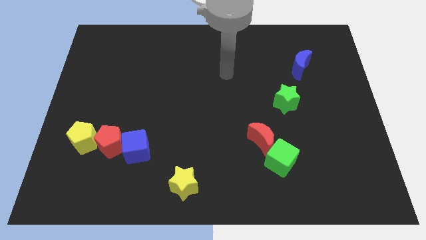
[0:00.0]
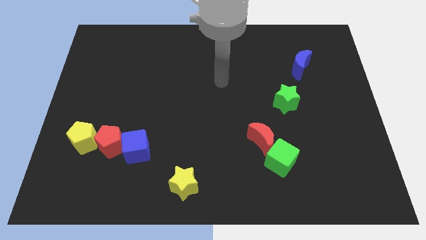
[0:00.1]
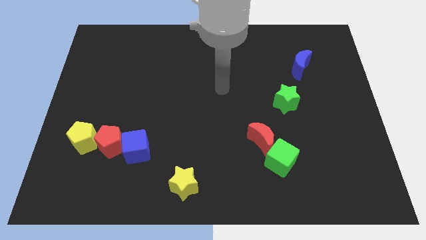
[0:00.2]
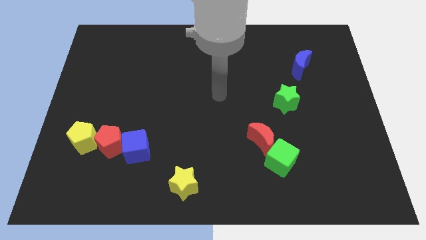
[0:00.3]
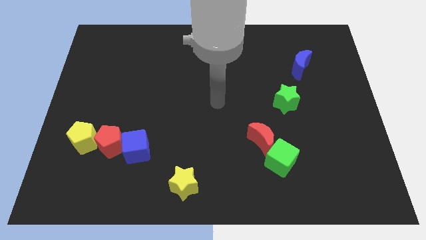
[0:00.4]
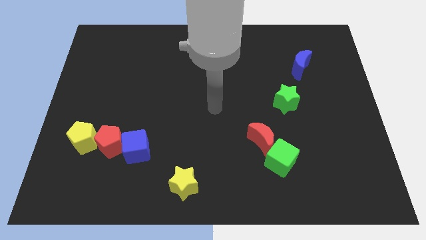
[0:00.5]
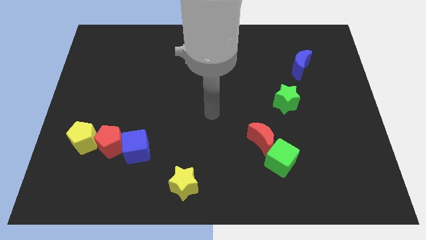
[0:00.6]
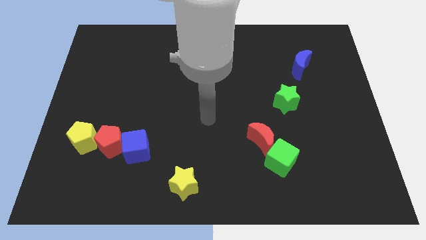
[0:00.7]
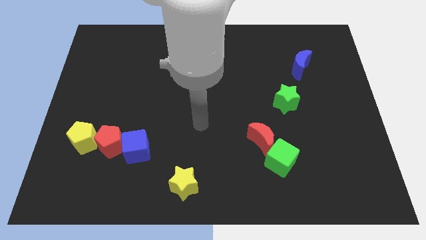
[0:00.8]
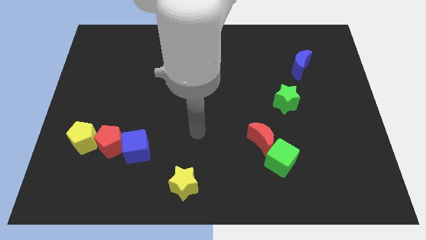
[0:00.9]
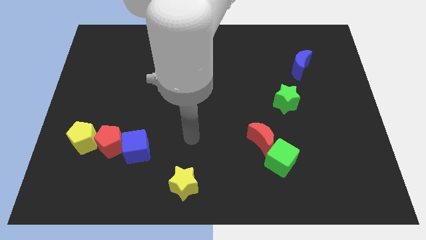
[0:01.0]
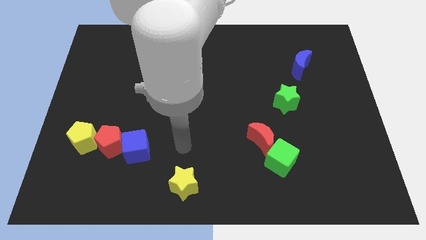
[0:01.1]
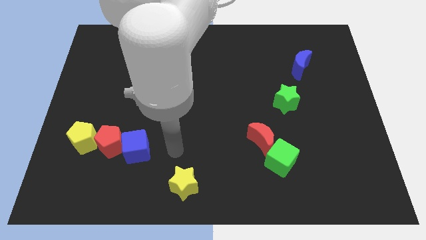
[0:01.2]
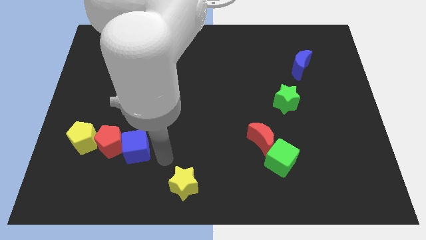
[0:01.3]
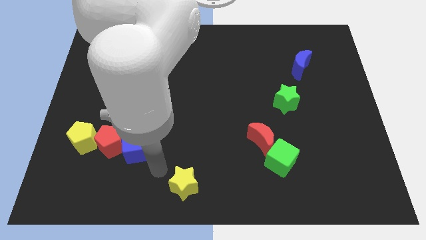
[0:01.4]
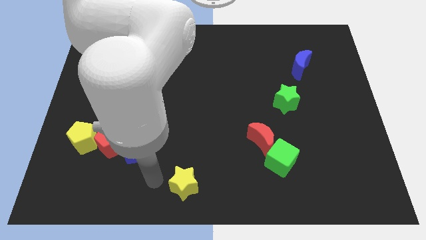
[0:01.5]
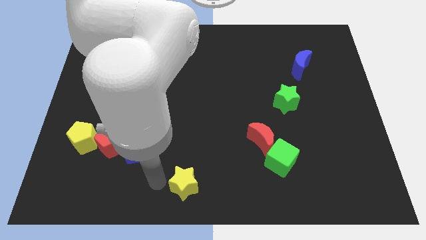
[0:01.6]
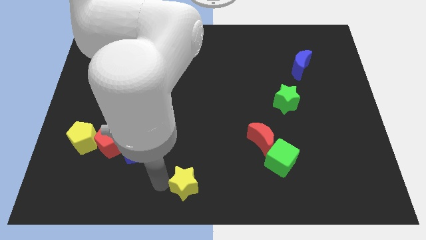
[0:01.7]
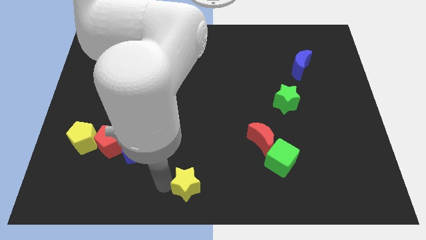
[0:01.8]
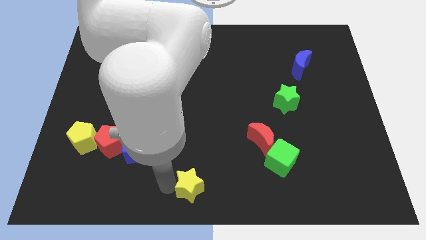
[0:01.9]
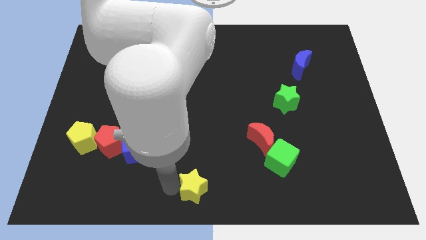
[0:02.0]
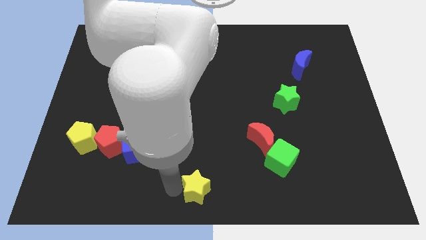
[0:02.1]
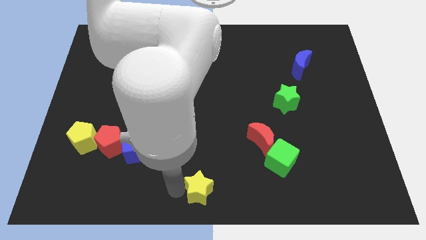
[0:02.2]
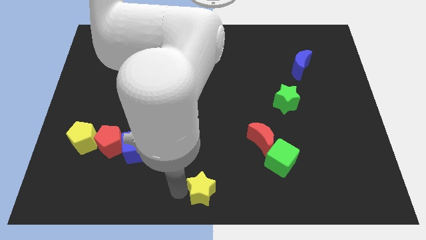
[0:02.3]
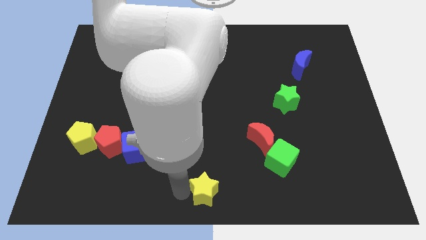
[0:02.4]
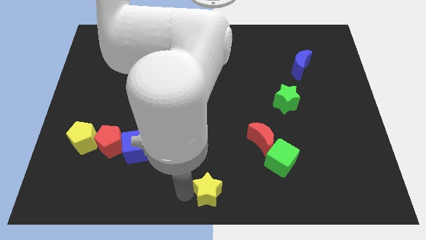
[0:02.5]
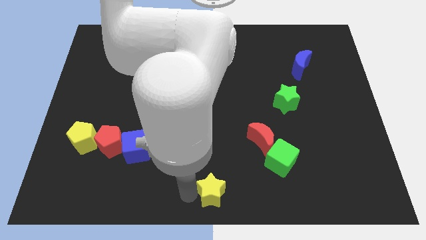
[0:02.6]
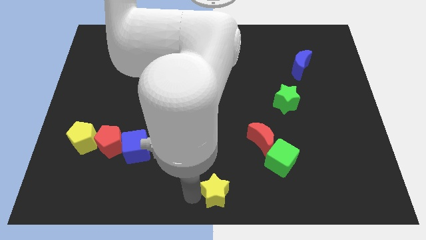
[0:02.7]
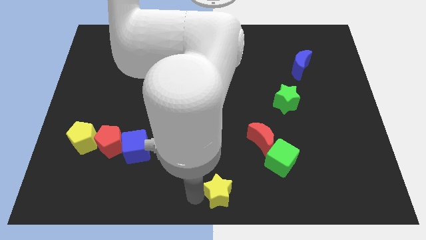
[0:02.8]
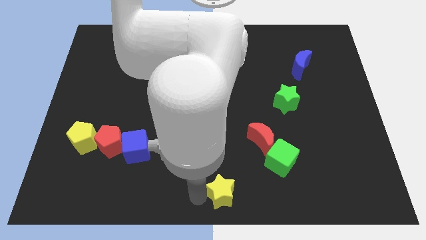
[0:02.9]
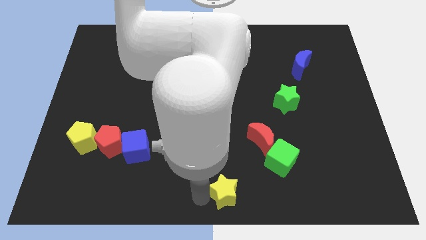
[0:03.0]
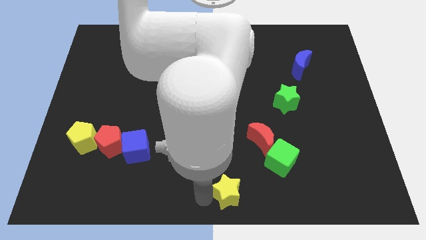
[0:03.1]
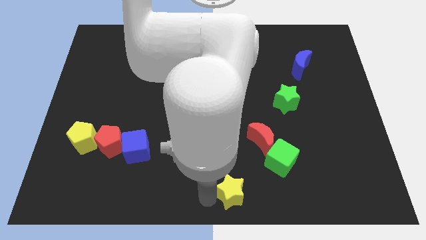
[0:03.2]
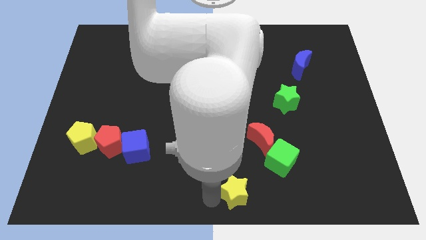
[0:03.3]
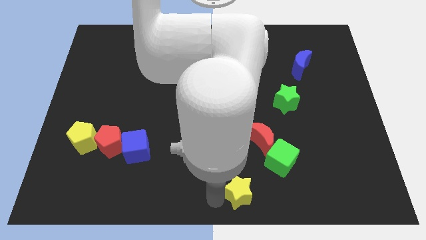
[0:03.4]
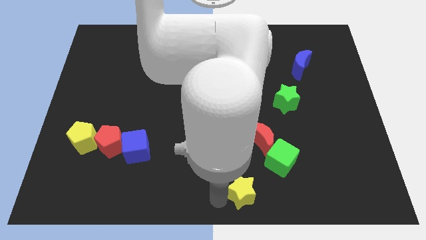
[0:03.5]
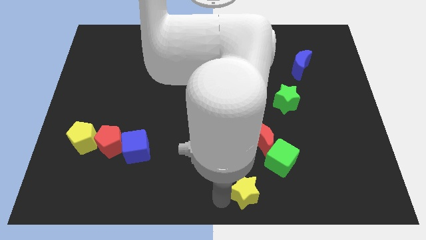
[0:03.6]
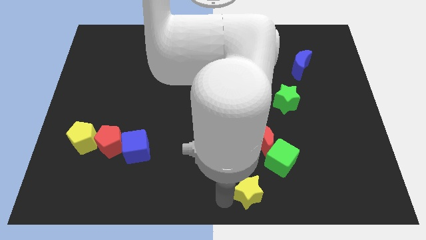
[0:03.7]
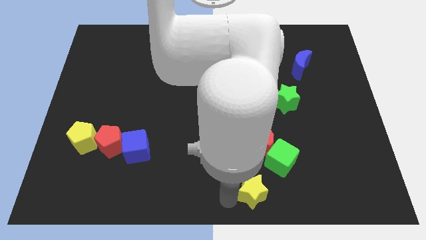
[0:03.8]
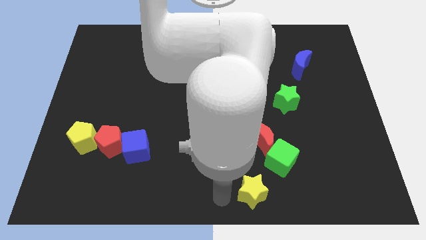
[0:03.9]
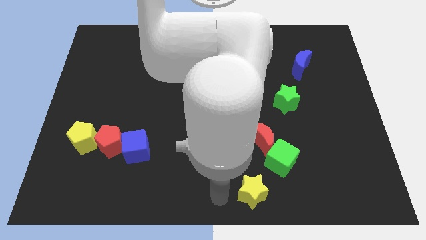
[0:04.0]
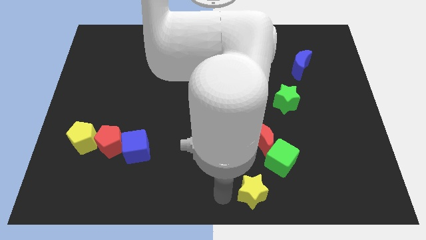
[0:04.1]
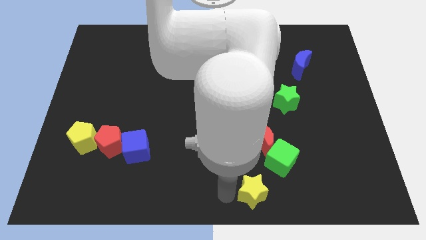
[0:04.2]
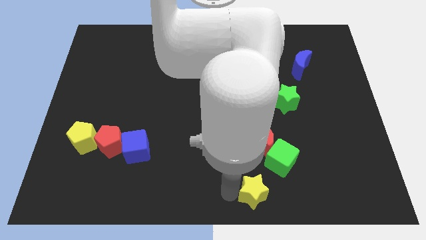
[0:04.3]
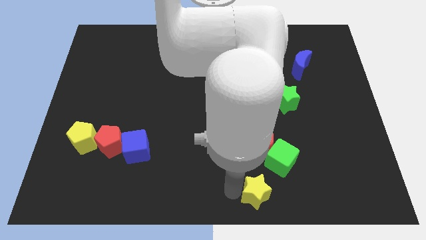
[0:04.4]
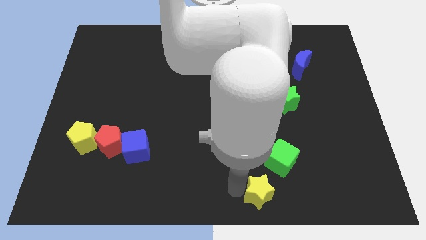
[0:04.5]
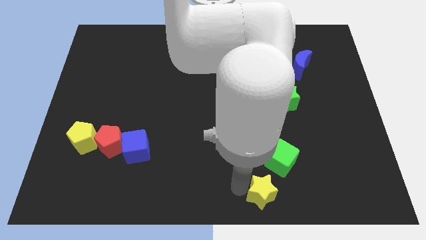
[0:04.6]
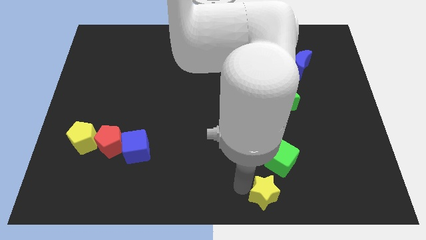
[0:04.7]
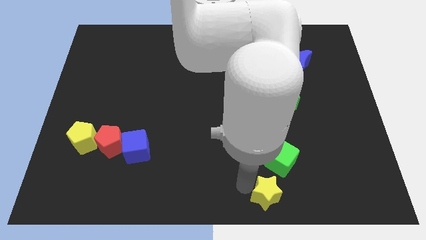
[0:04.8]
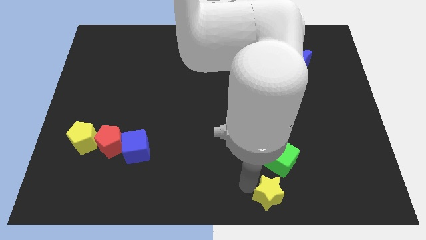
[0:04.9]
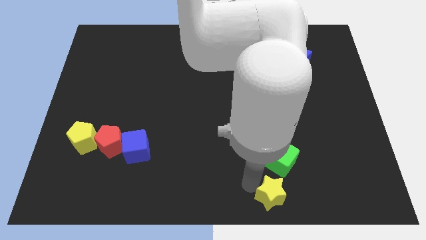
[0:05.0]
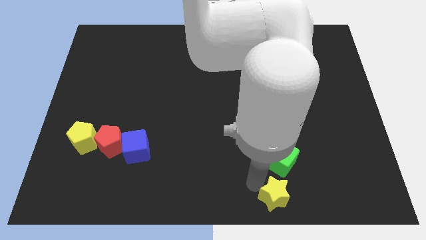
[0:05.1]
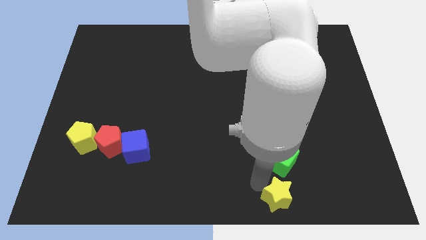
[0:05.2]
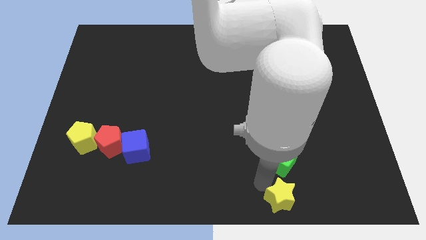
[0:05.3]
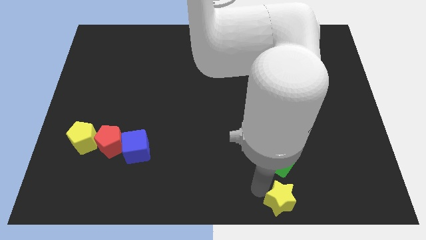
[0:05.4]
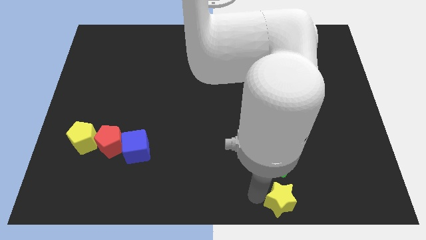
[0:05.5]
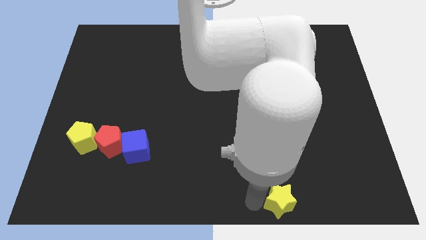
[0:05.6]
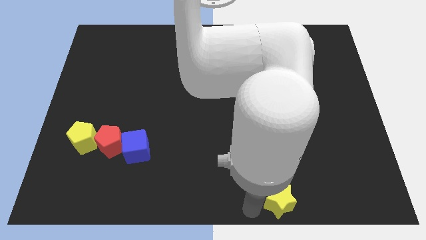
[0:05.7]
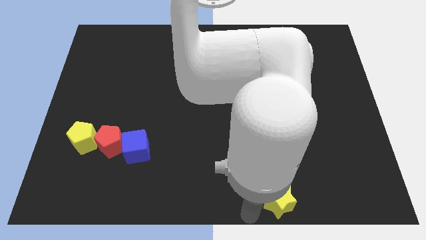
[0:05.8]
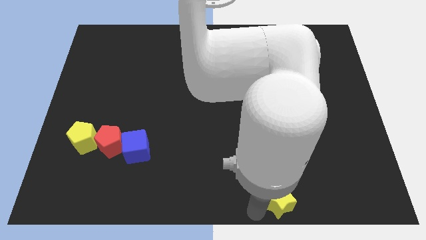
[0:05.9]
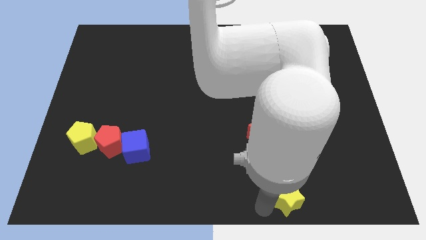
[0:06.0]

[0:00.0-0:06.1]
slide the yellow star right

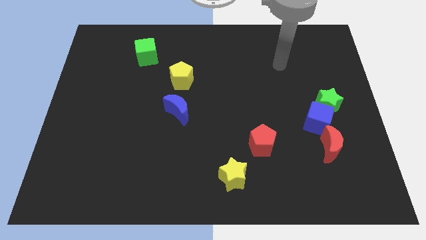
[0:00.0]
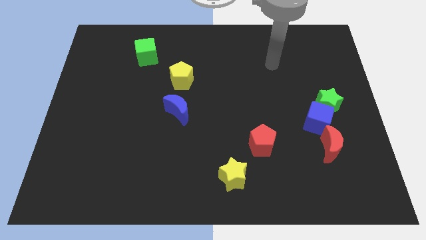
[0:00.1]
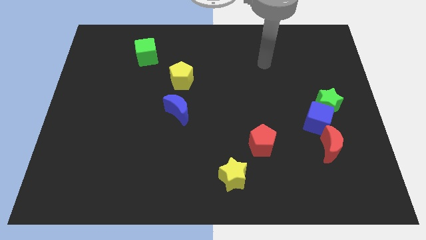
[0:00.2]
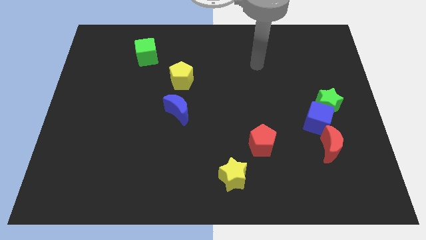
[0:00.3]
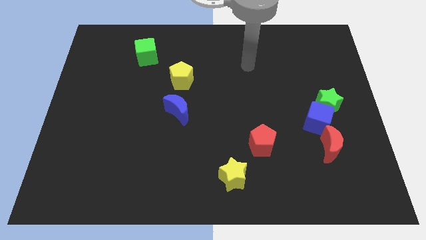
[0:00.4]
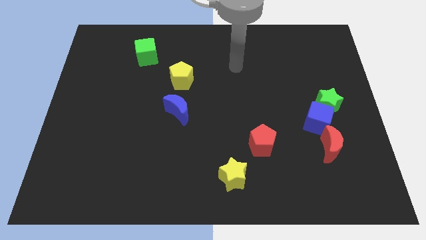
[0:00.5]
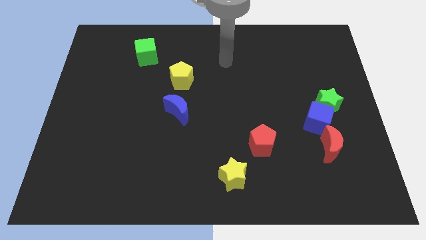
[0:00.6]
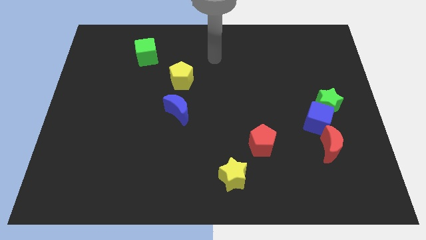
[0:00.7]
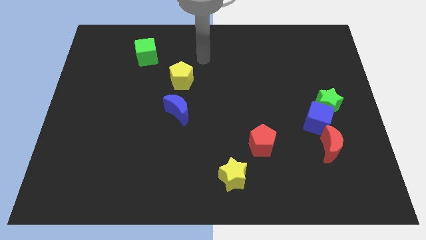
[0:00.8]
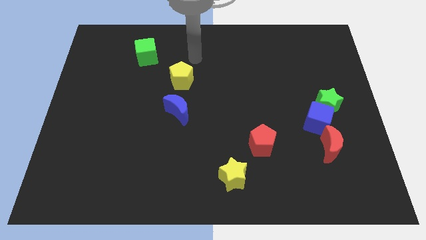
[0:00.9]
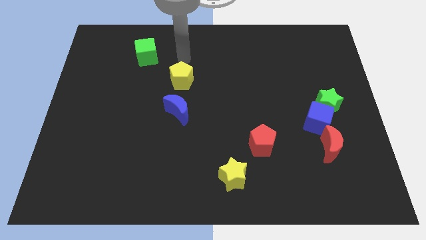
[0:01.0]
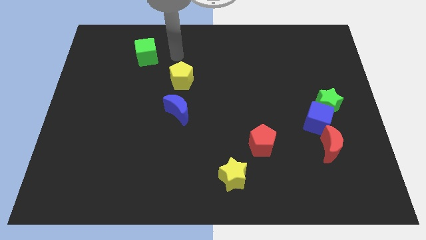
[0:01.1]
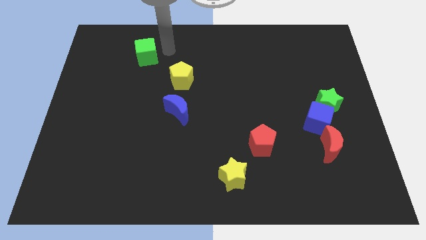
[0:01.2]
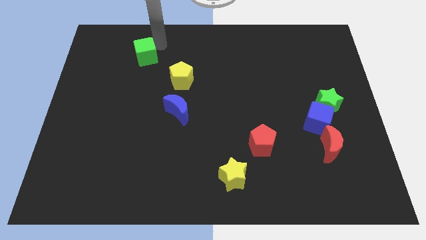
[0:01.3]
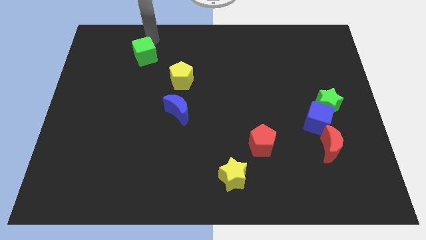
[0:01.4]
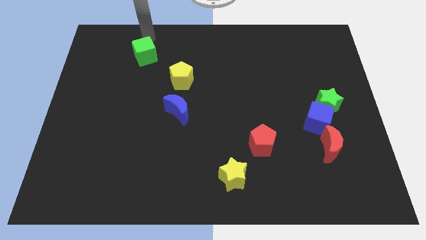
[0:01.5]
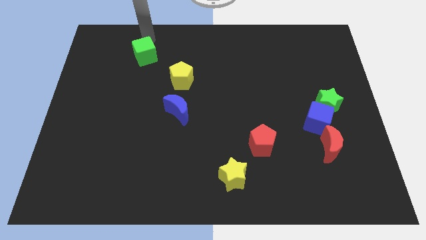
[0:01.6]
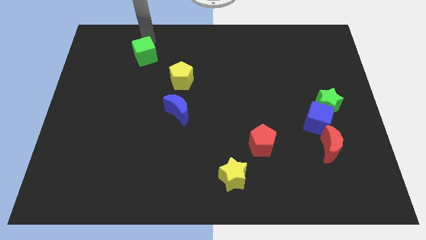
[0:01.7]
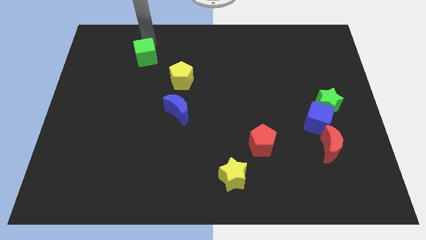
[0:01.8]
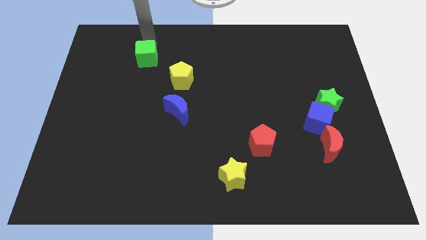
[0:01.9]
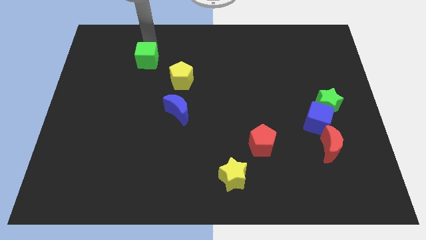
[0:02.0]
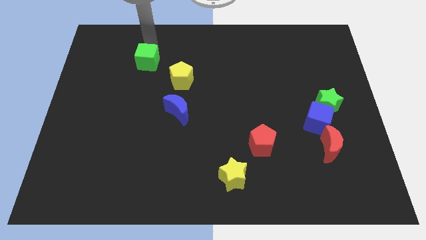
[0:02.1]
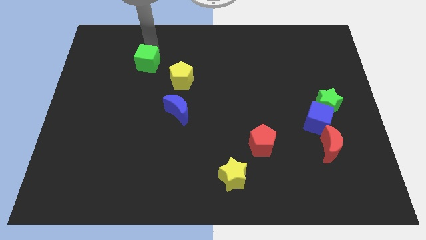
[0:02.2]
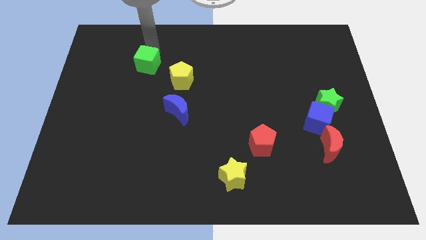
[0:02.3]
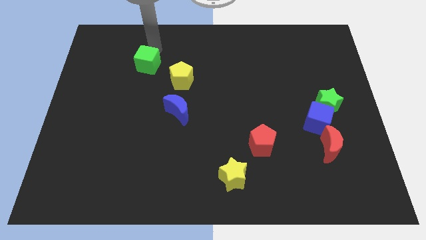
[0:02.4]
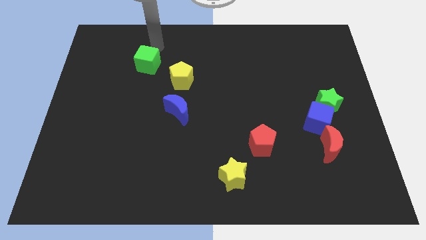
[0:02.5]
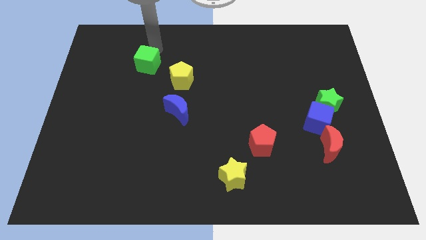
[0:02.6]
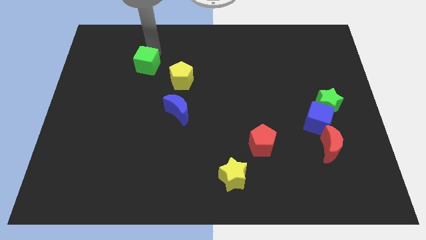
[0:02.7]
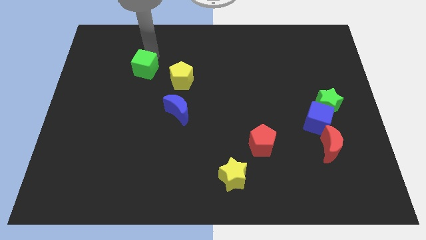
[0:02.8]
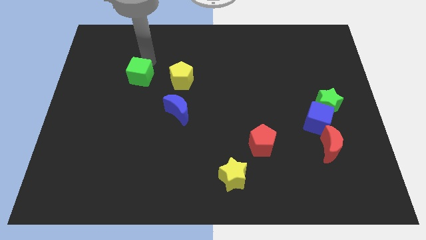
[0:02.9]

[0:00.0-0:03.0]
push the green cube somewhat down
